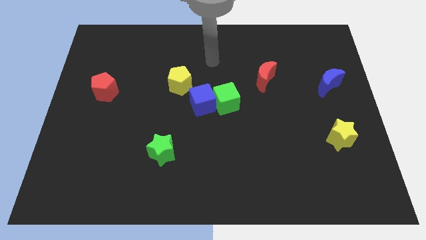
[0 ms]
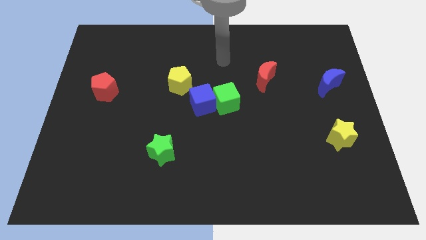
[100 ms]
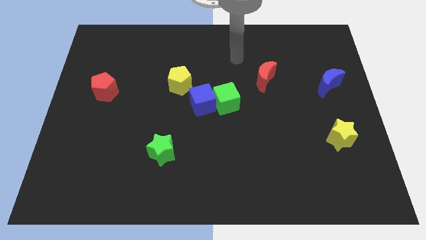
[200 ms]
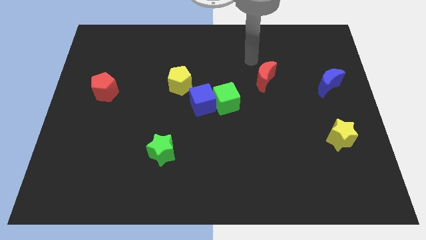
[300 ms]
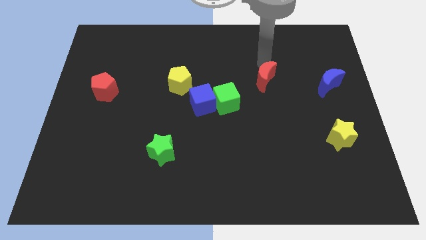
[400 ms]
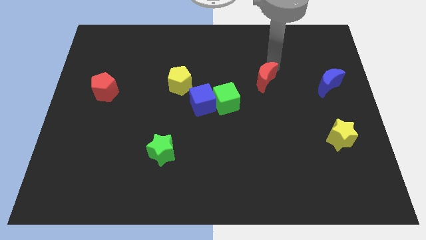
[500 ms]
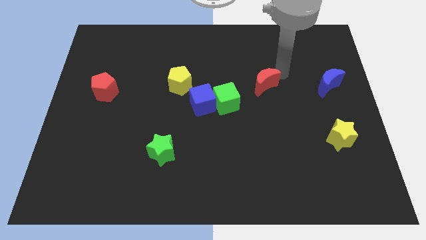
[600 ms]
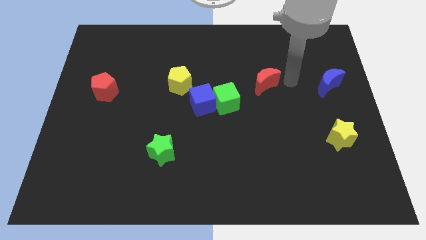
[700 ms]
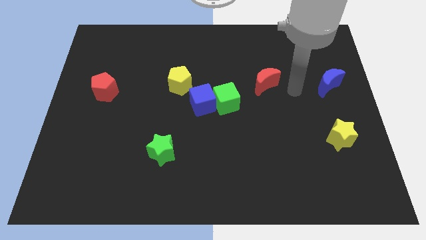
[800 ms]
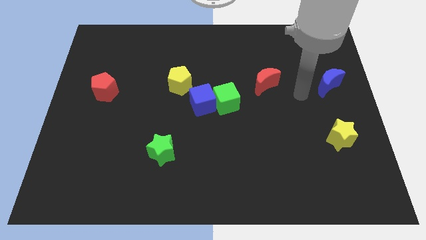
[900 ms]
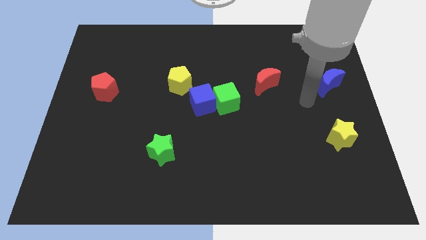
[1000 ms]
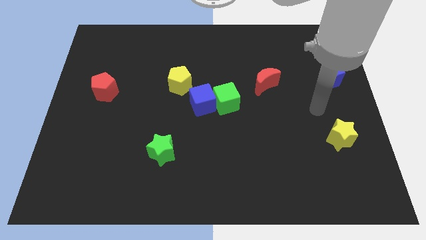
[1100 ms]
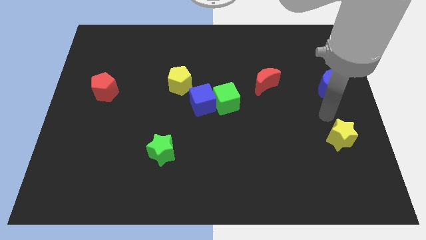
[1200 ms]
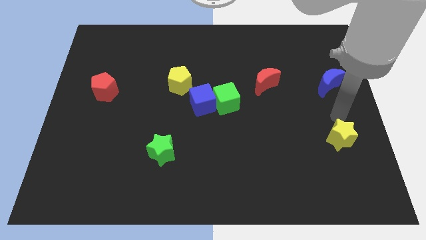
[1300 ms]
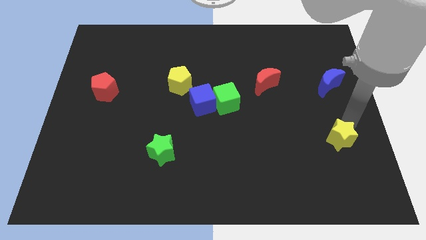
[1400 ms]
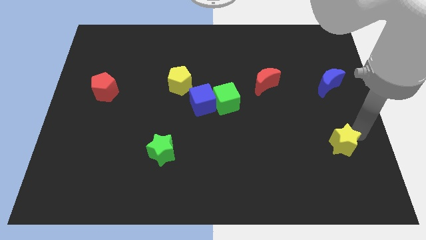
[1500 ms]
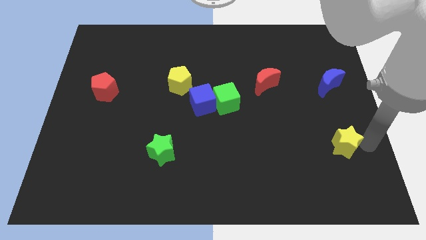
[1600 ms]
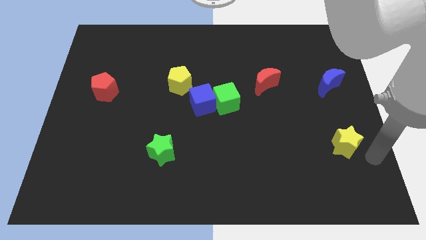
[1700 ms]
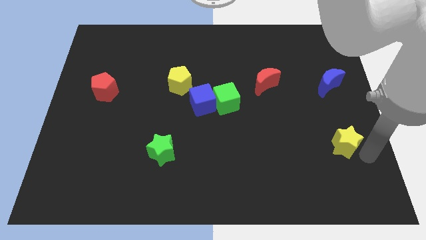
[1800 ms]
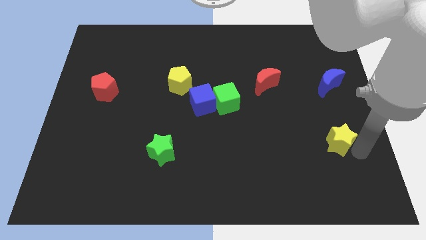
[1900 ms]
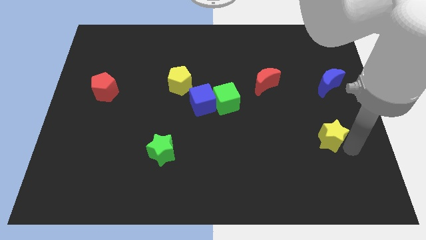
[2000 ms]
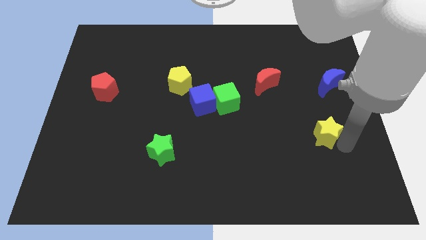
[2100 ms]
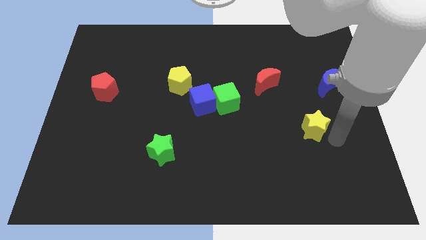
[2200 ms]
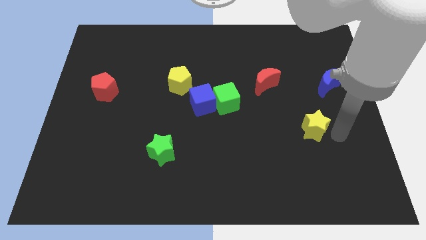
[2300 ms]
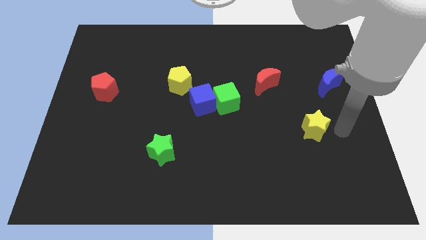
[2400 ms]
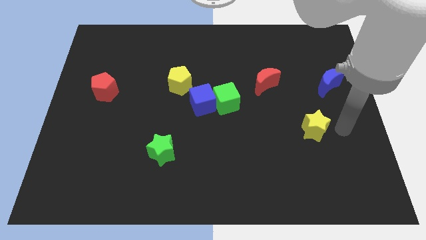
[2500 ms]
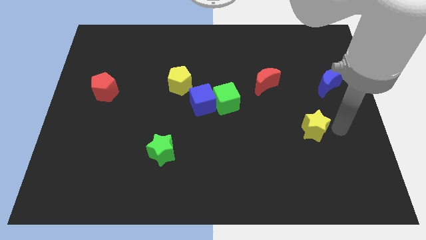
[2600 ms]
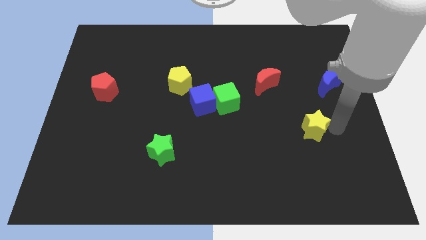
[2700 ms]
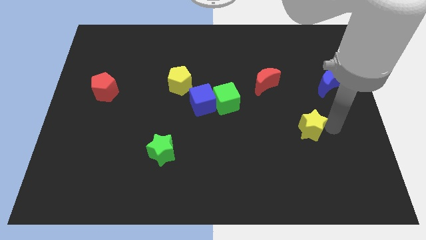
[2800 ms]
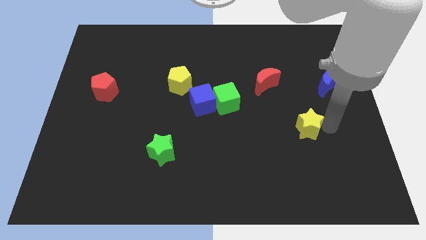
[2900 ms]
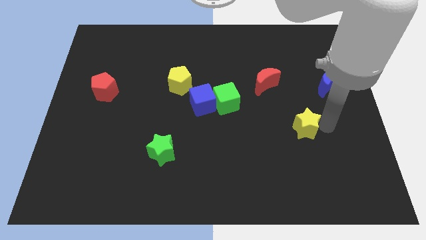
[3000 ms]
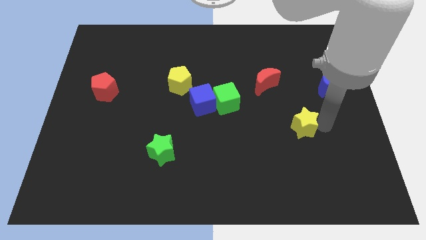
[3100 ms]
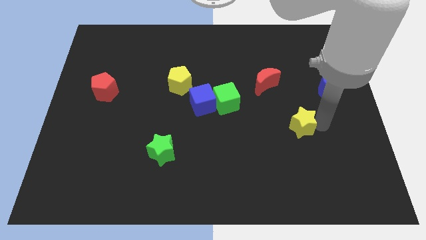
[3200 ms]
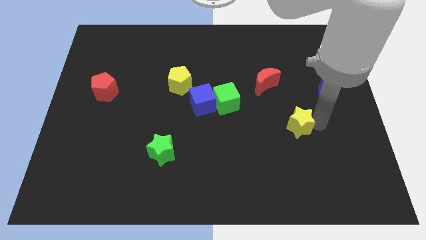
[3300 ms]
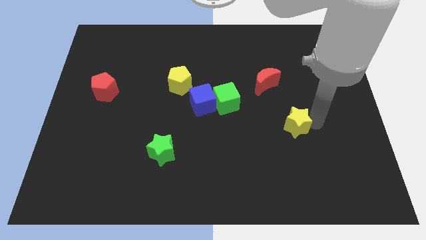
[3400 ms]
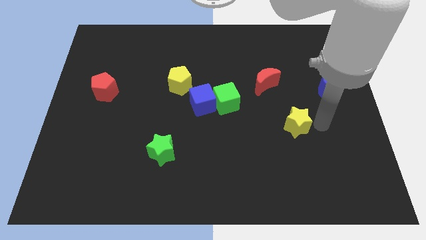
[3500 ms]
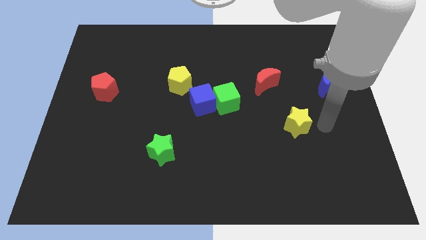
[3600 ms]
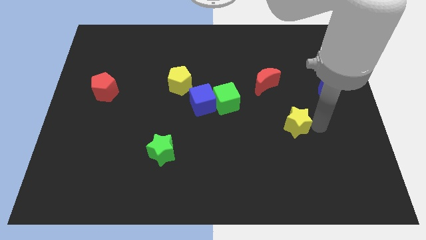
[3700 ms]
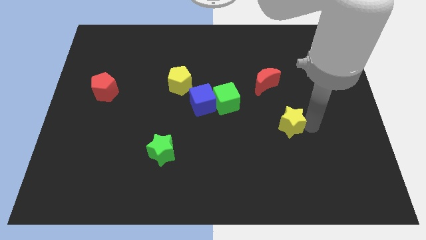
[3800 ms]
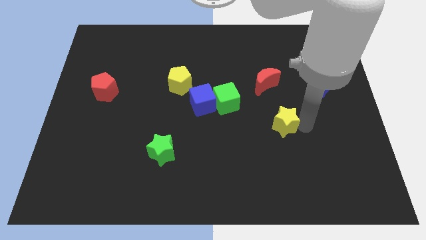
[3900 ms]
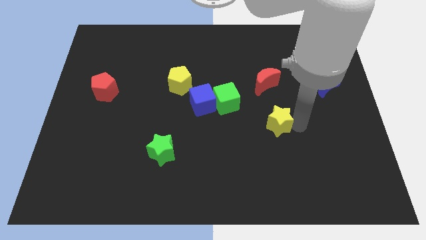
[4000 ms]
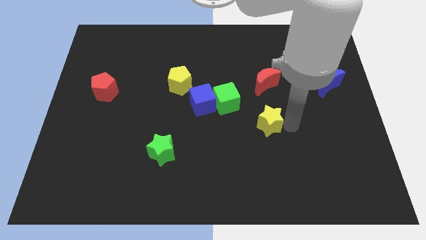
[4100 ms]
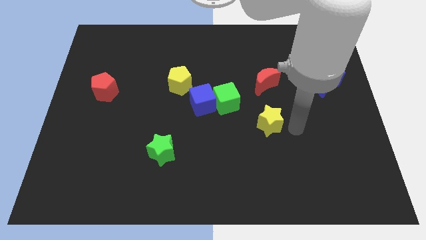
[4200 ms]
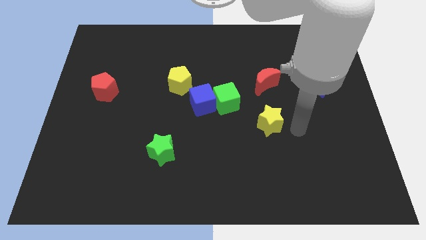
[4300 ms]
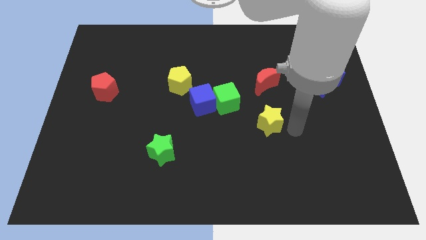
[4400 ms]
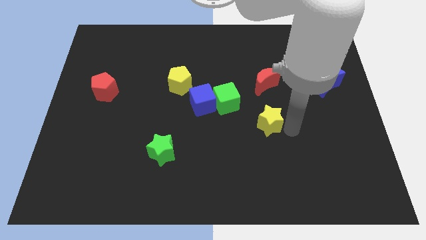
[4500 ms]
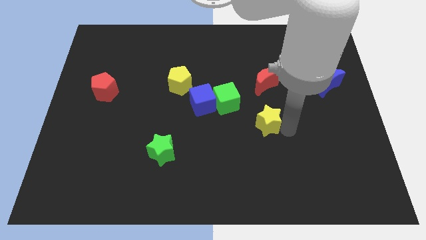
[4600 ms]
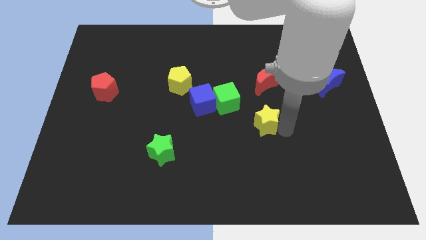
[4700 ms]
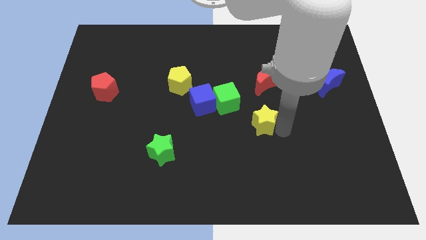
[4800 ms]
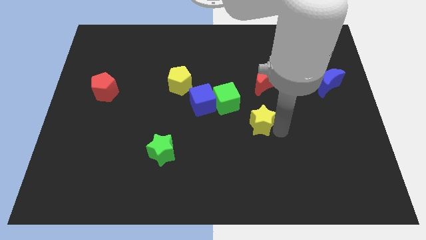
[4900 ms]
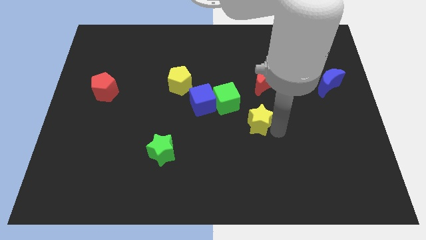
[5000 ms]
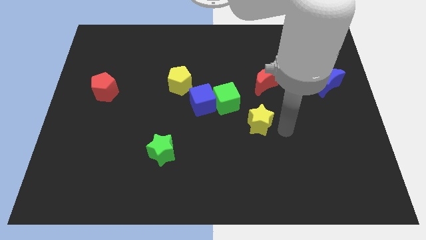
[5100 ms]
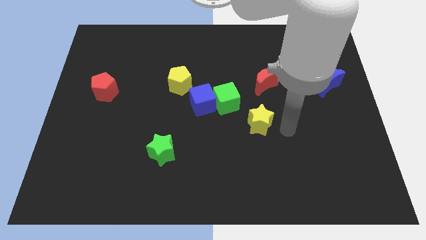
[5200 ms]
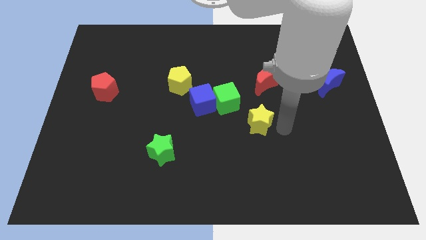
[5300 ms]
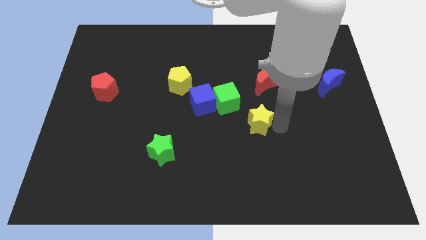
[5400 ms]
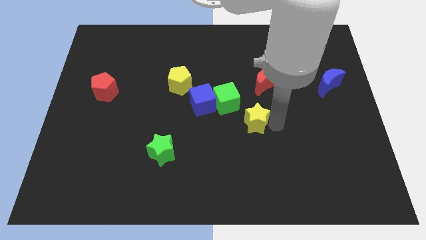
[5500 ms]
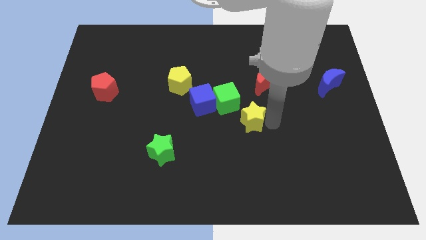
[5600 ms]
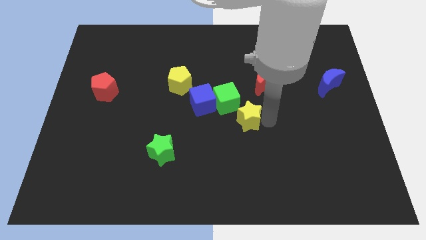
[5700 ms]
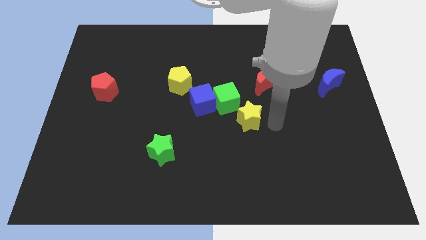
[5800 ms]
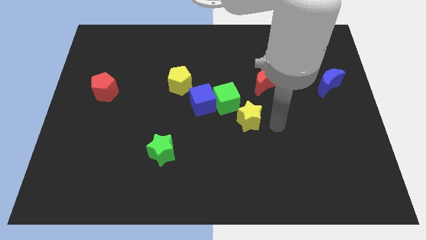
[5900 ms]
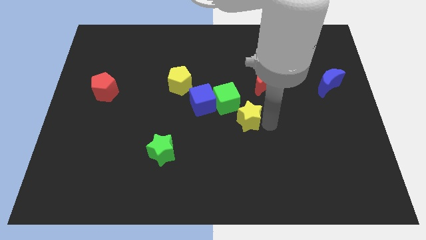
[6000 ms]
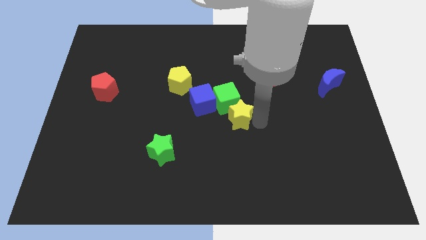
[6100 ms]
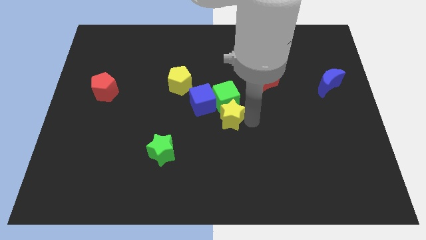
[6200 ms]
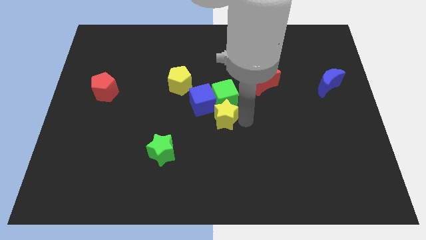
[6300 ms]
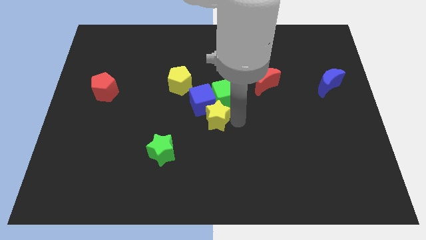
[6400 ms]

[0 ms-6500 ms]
push the yellow star next to the blue cube

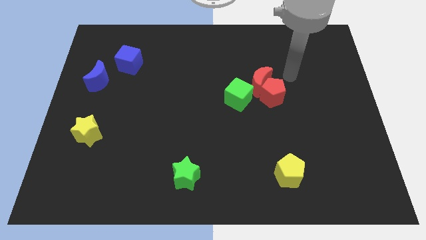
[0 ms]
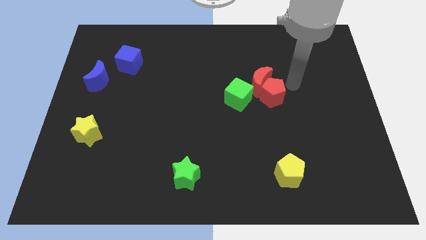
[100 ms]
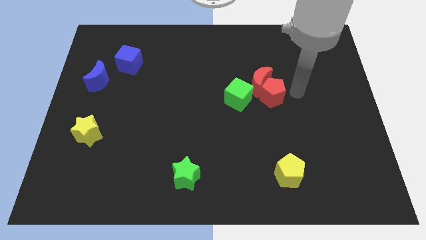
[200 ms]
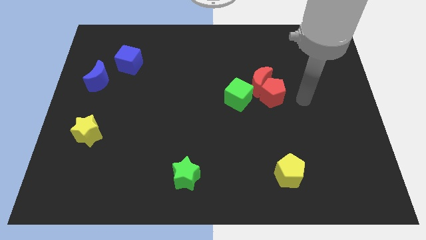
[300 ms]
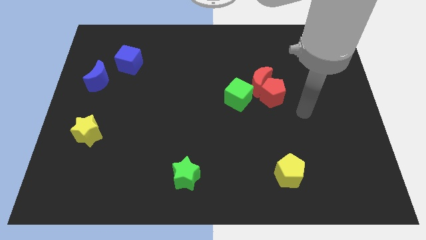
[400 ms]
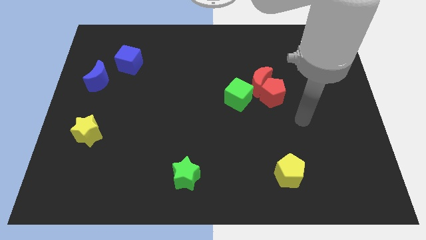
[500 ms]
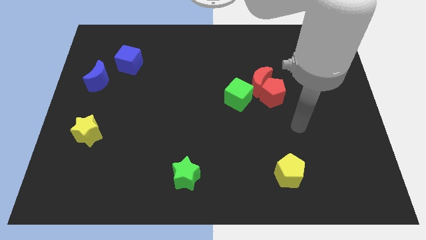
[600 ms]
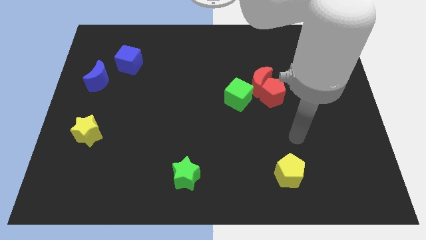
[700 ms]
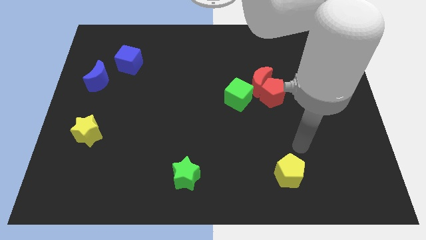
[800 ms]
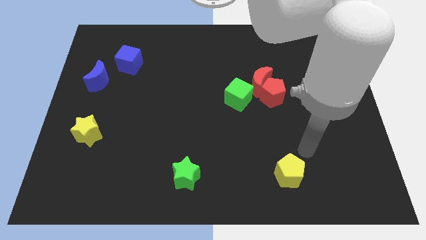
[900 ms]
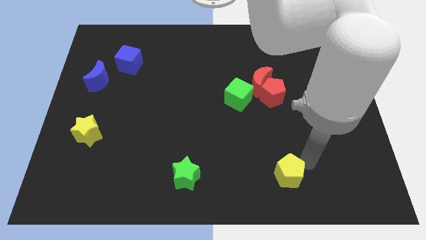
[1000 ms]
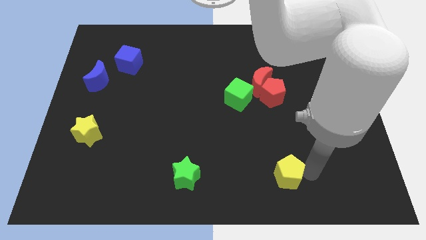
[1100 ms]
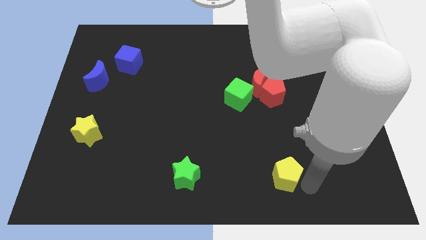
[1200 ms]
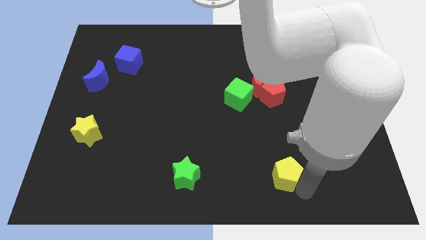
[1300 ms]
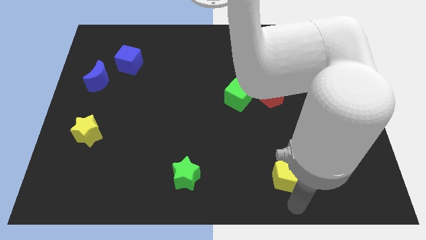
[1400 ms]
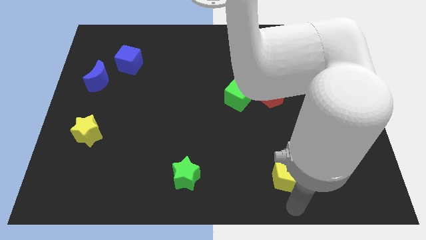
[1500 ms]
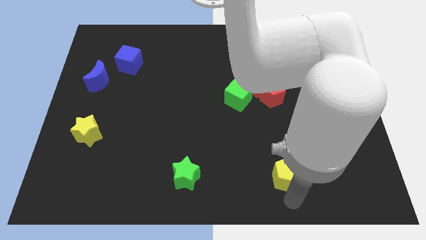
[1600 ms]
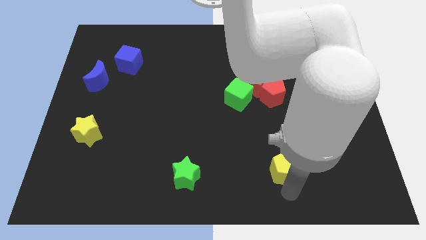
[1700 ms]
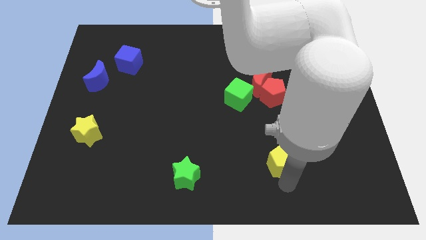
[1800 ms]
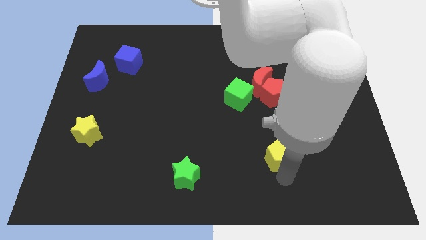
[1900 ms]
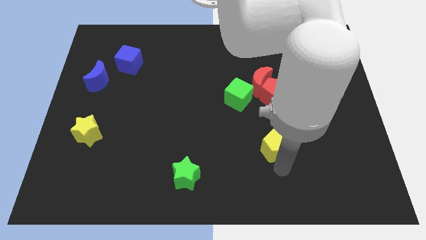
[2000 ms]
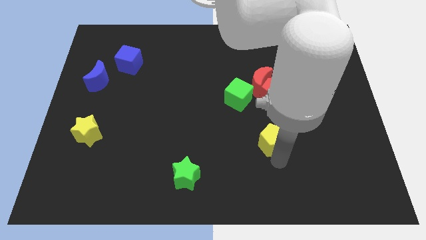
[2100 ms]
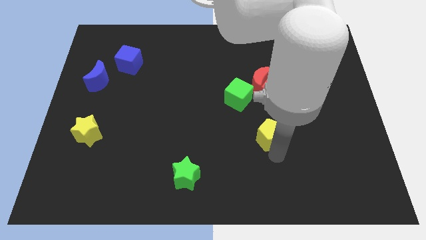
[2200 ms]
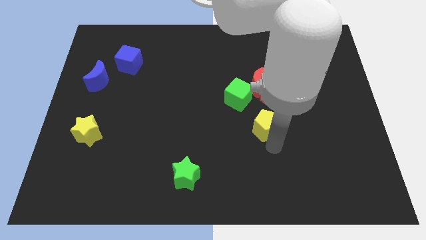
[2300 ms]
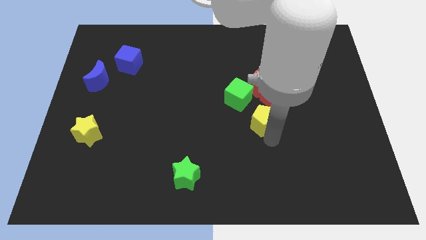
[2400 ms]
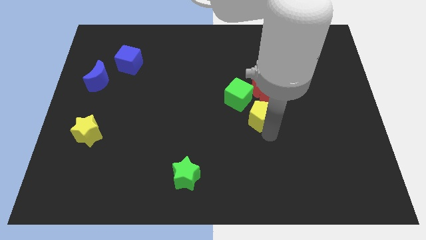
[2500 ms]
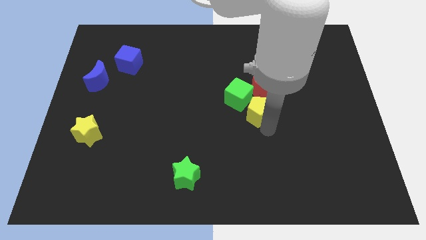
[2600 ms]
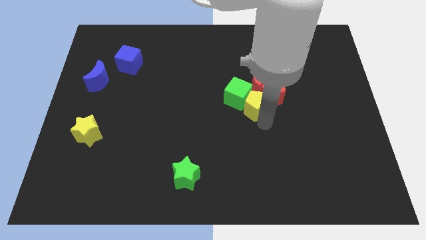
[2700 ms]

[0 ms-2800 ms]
slide the yellow pentagon next to the green cube
